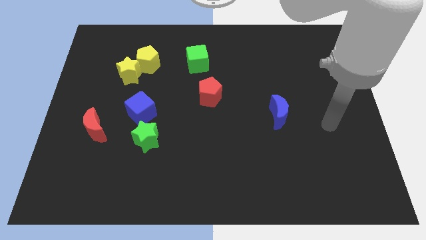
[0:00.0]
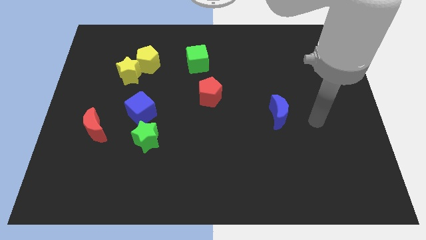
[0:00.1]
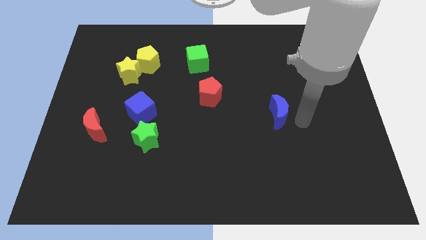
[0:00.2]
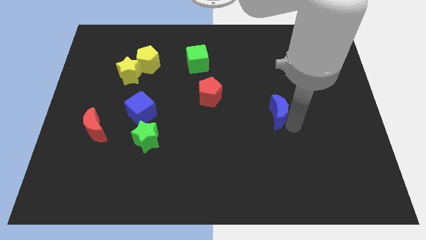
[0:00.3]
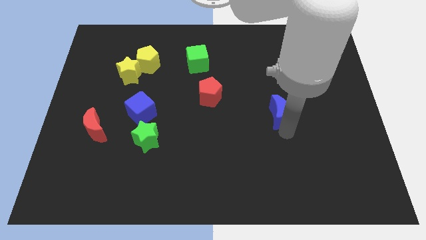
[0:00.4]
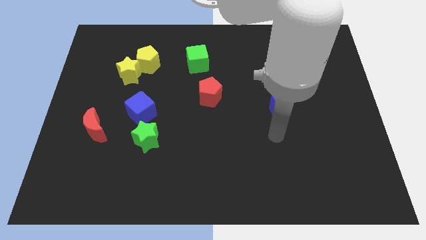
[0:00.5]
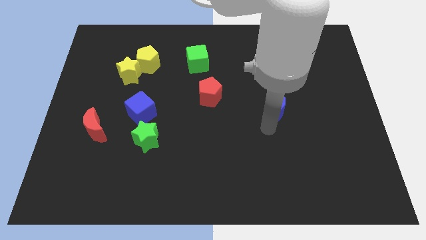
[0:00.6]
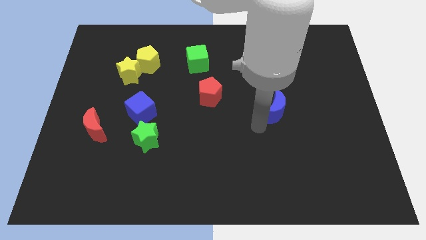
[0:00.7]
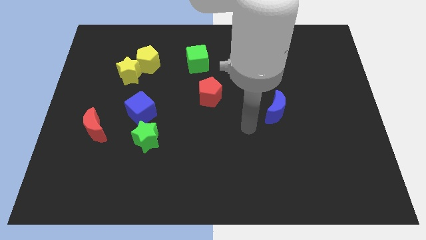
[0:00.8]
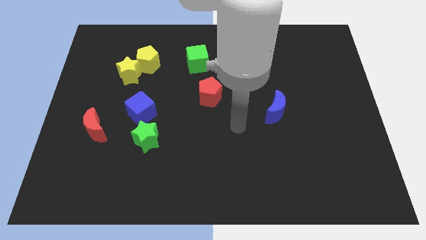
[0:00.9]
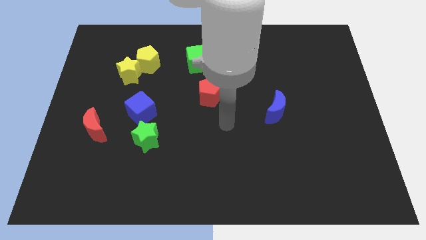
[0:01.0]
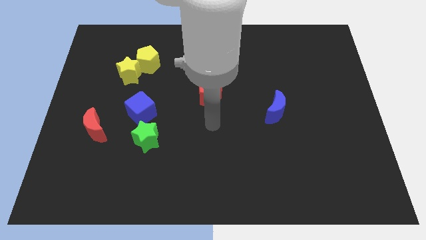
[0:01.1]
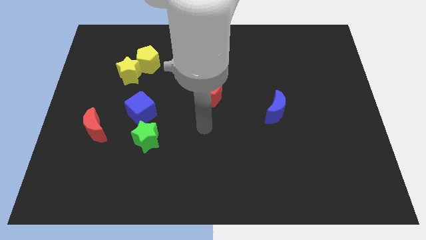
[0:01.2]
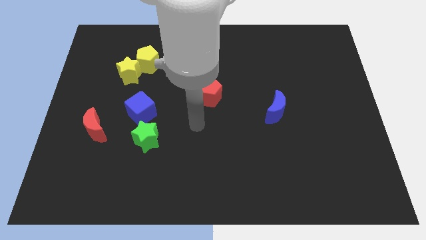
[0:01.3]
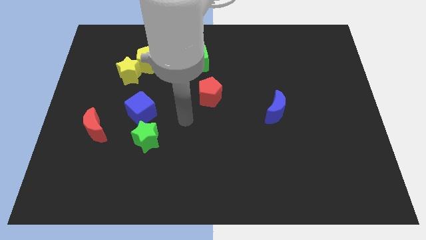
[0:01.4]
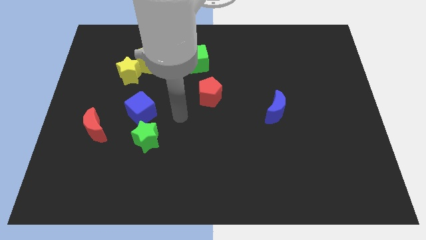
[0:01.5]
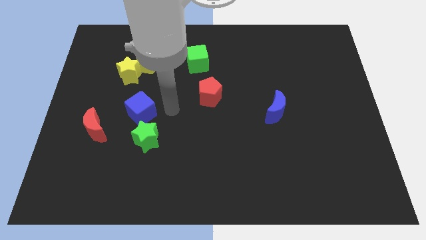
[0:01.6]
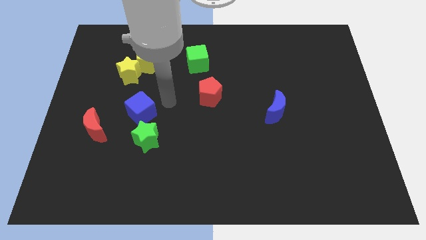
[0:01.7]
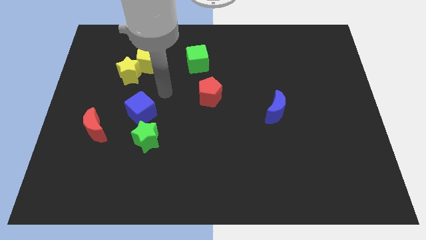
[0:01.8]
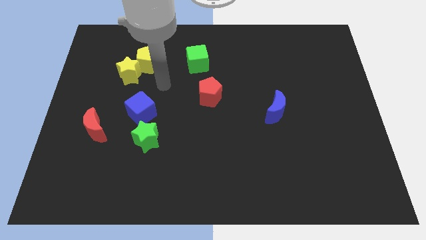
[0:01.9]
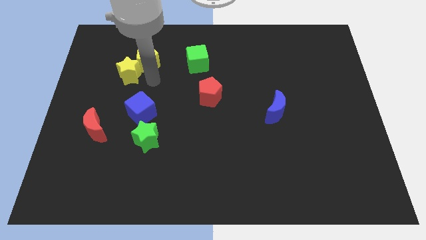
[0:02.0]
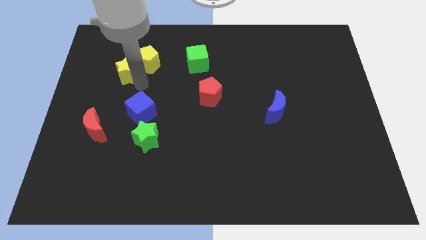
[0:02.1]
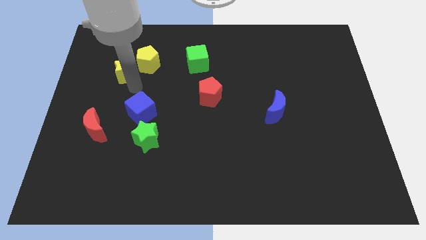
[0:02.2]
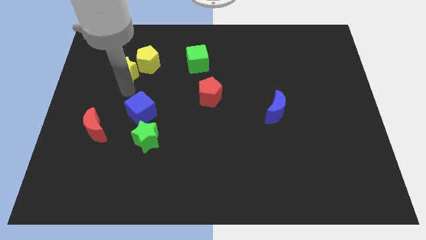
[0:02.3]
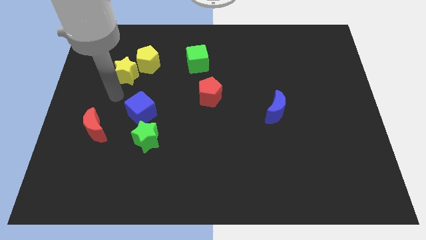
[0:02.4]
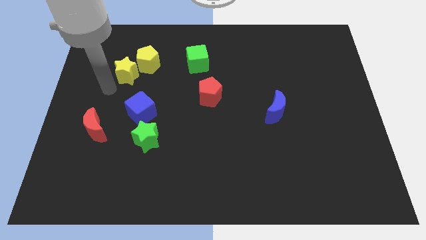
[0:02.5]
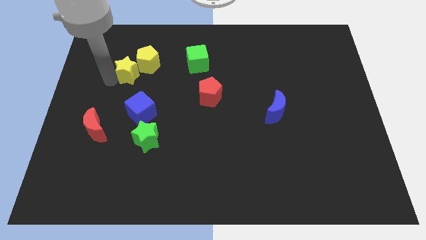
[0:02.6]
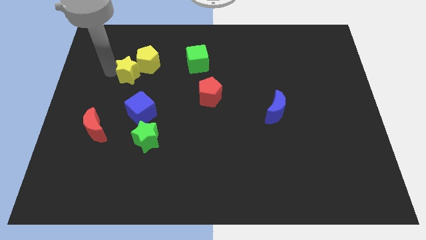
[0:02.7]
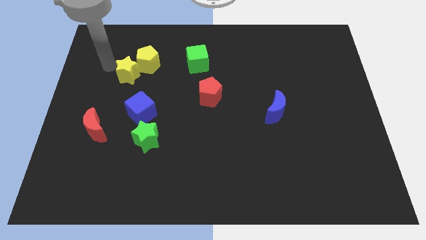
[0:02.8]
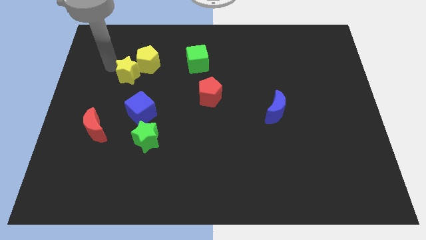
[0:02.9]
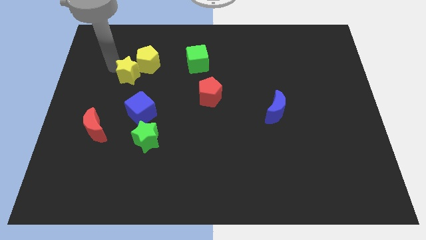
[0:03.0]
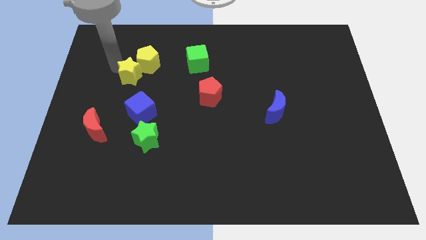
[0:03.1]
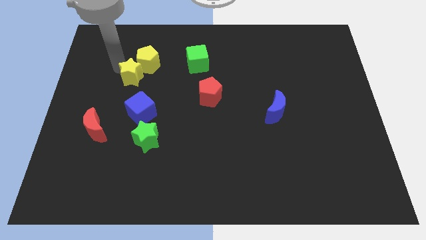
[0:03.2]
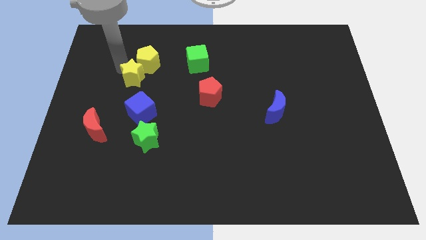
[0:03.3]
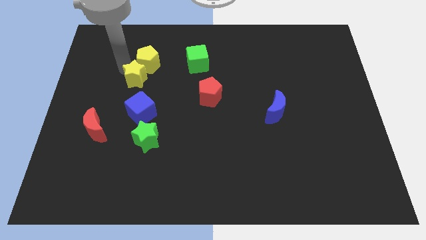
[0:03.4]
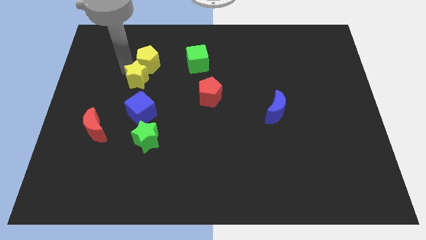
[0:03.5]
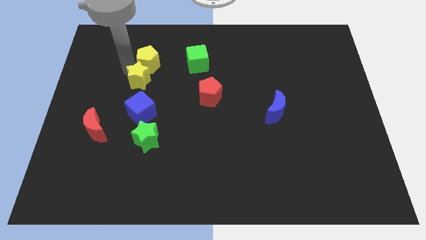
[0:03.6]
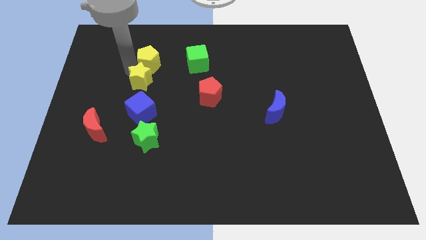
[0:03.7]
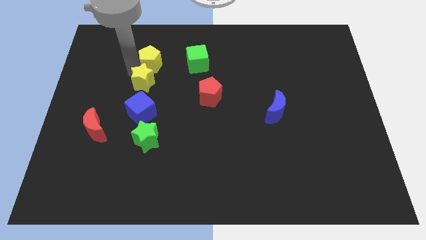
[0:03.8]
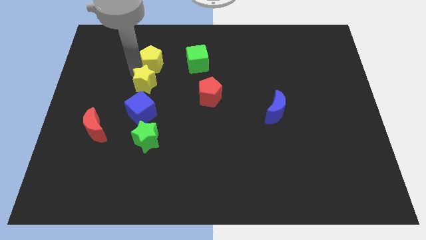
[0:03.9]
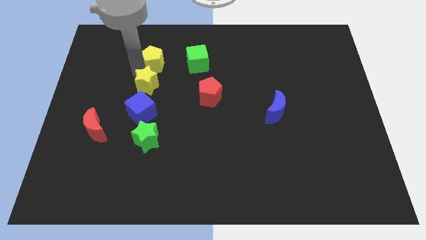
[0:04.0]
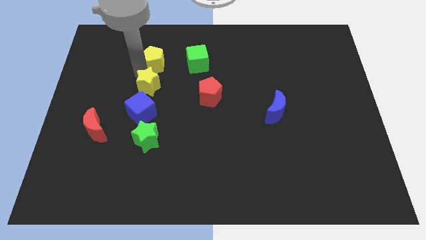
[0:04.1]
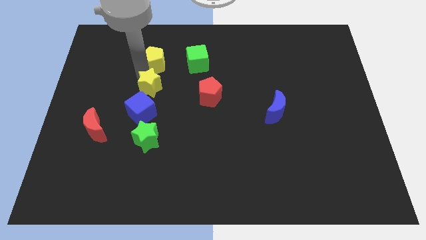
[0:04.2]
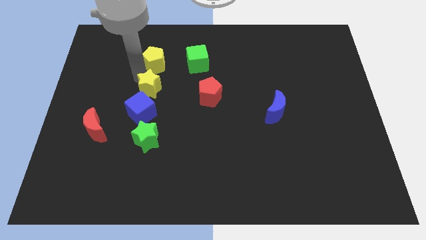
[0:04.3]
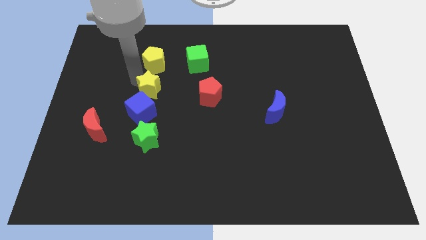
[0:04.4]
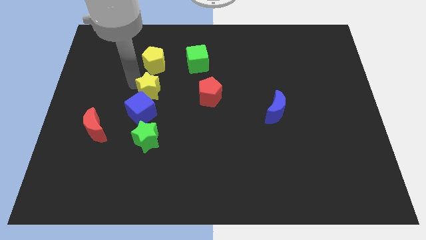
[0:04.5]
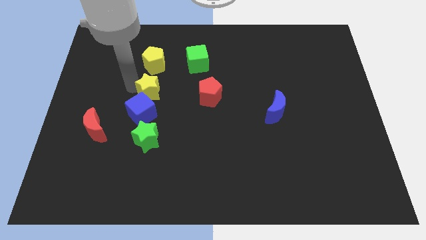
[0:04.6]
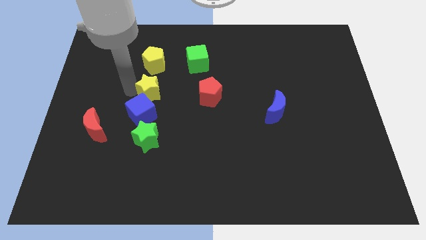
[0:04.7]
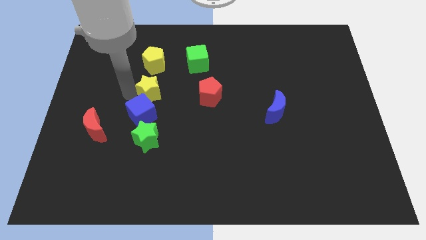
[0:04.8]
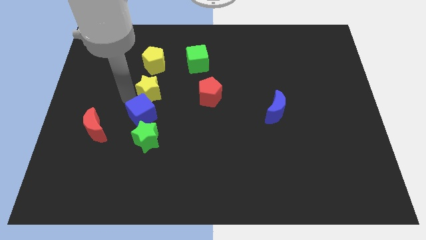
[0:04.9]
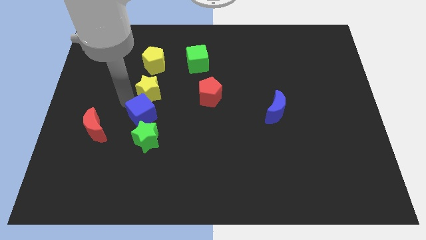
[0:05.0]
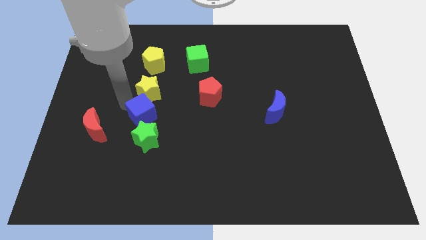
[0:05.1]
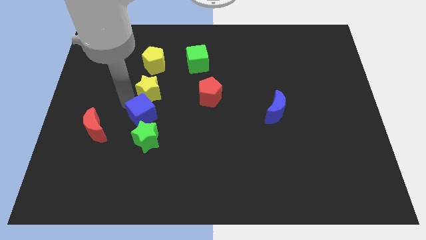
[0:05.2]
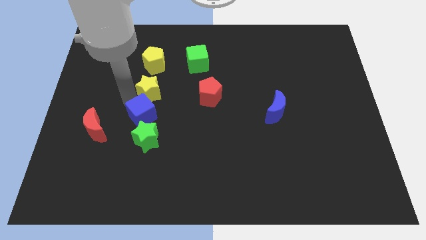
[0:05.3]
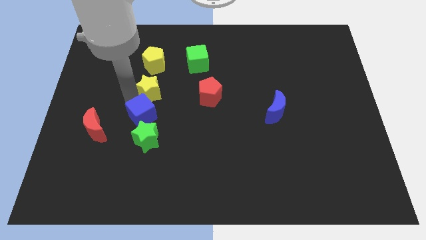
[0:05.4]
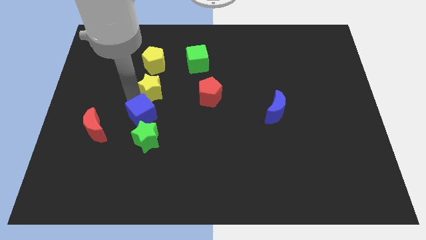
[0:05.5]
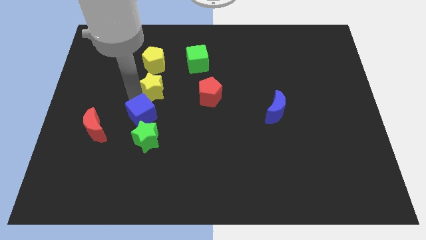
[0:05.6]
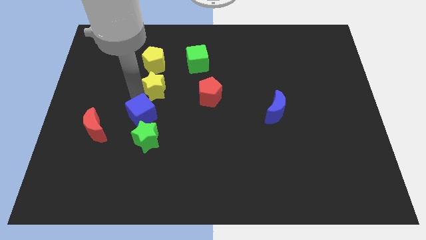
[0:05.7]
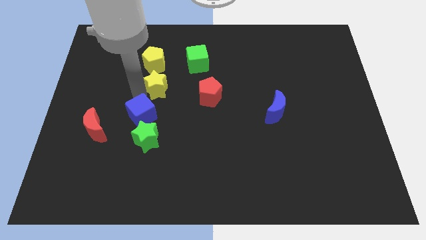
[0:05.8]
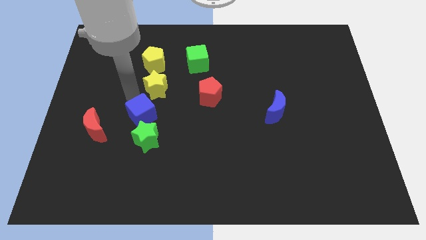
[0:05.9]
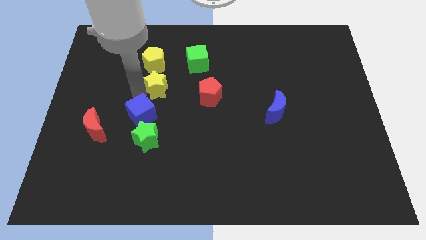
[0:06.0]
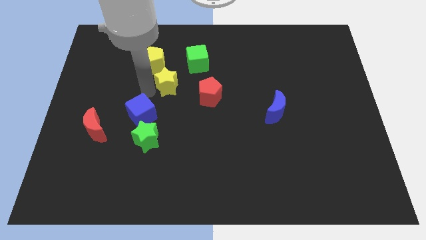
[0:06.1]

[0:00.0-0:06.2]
slightly move the yellow star right

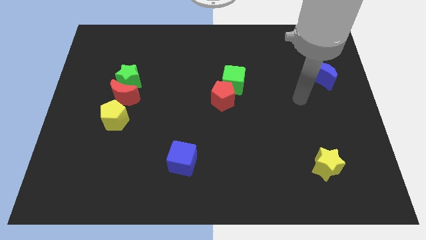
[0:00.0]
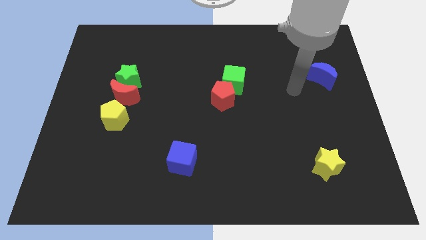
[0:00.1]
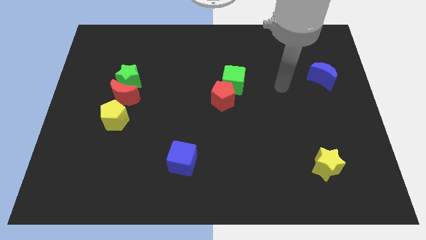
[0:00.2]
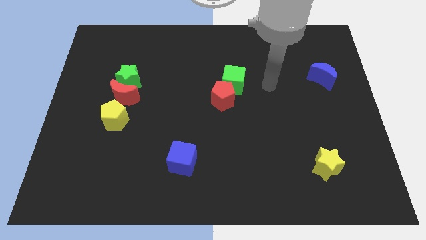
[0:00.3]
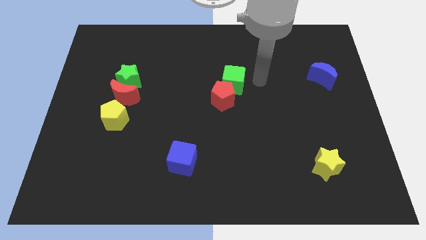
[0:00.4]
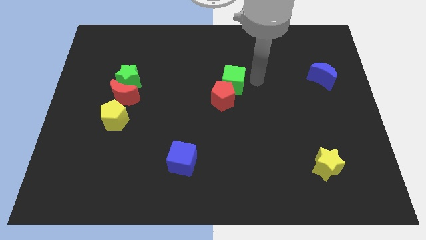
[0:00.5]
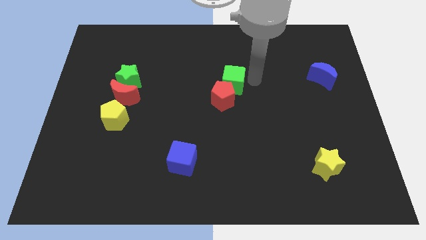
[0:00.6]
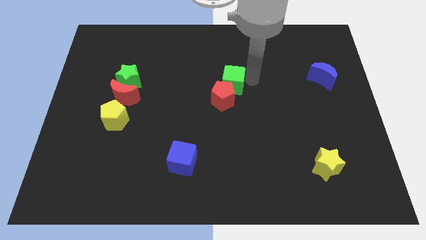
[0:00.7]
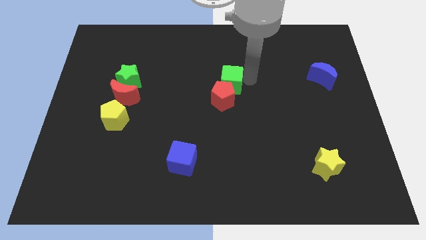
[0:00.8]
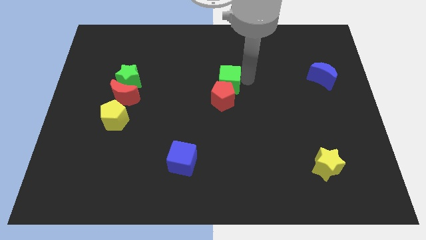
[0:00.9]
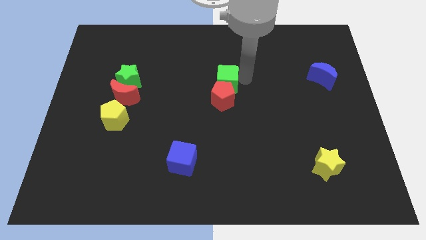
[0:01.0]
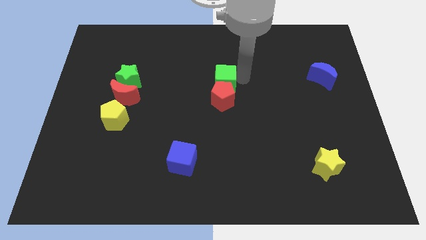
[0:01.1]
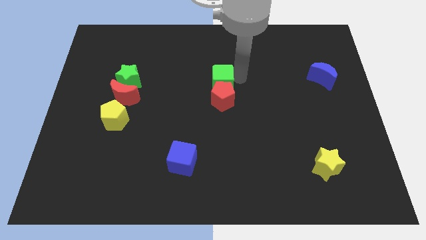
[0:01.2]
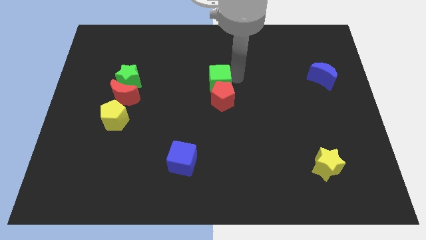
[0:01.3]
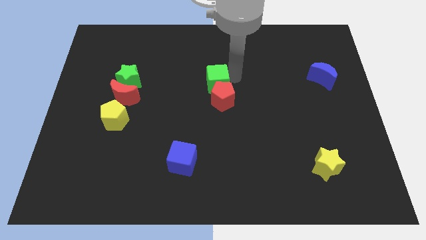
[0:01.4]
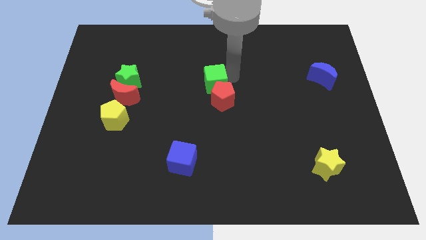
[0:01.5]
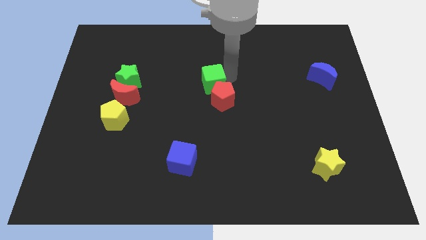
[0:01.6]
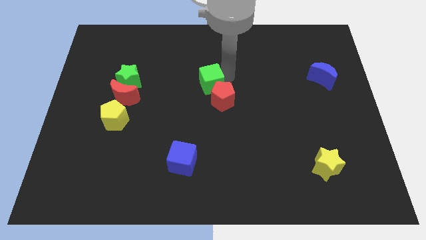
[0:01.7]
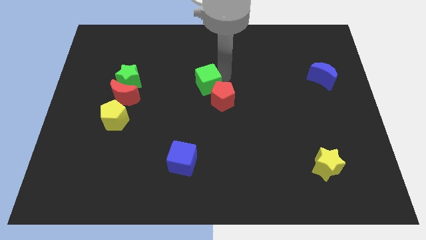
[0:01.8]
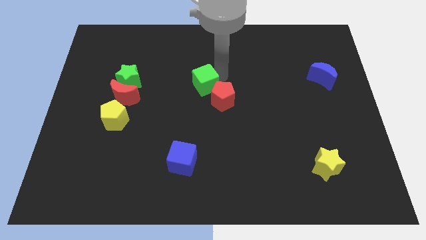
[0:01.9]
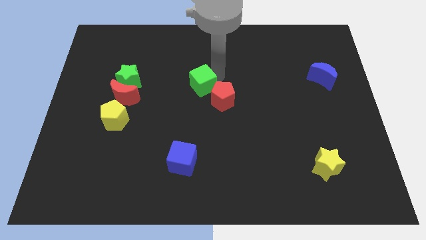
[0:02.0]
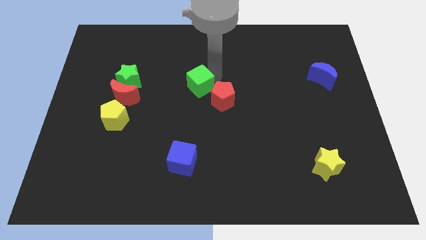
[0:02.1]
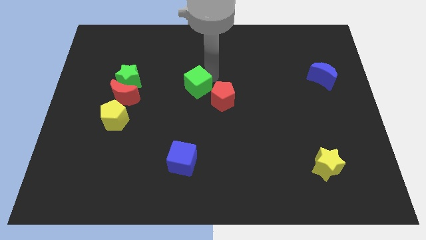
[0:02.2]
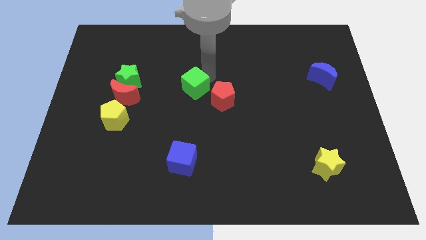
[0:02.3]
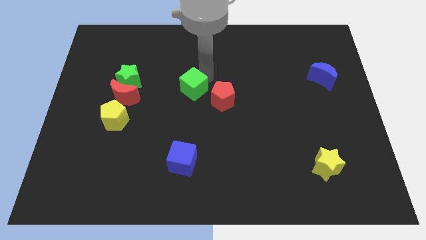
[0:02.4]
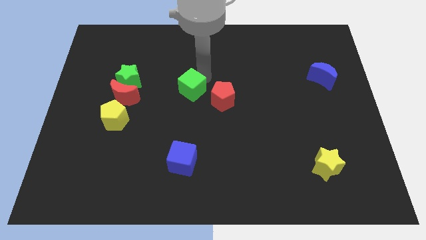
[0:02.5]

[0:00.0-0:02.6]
slide the green cube down and then to the left a little
